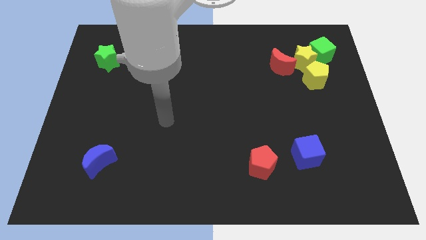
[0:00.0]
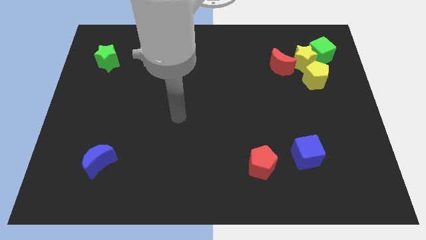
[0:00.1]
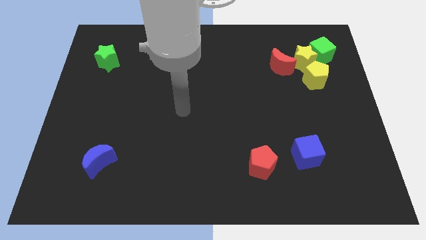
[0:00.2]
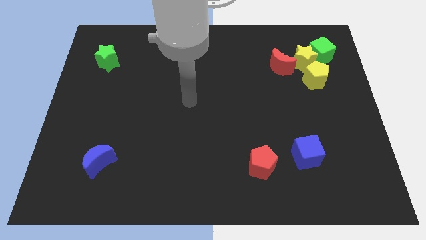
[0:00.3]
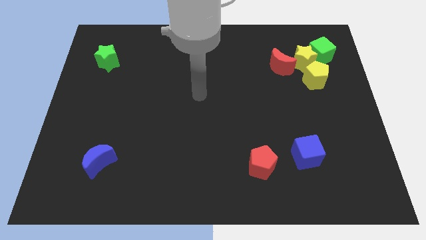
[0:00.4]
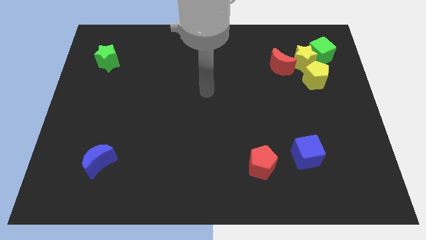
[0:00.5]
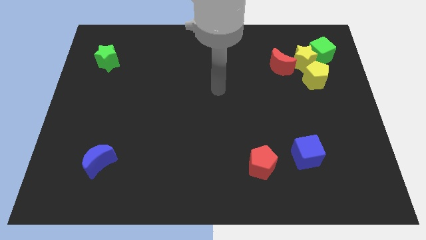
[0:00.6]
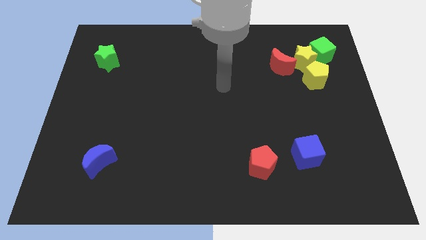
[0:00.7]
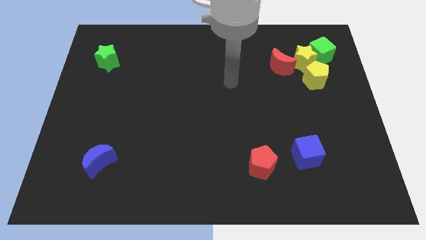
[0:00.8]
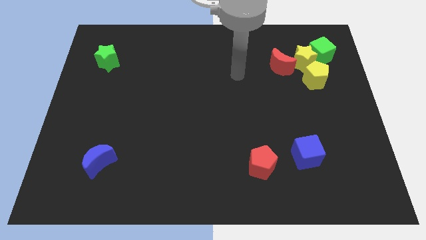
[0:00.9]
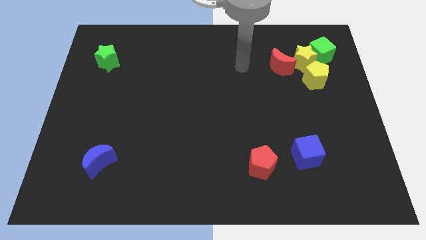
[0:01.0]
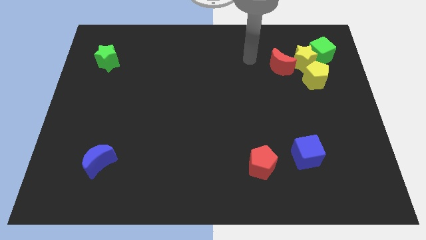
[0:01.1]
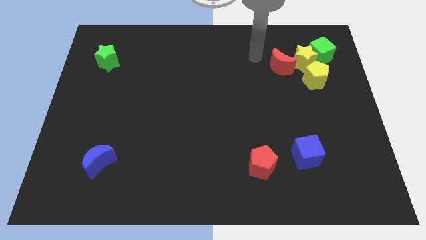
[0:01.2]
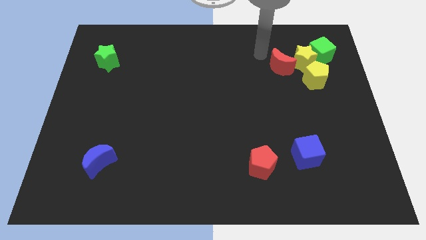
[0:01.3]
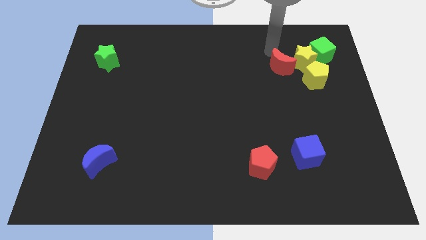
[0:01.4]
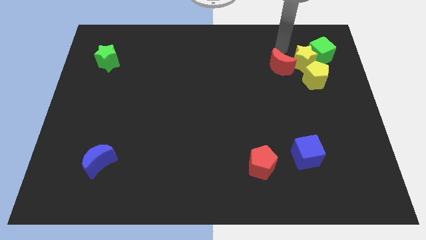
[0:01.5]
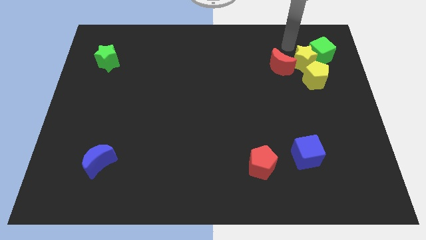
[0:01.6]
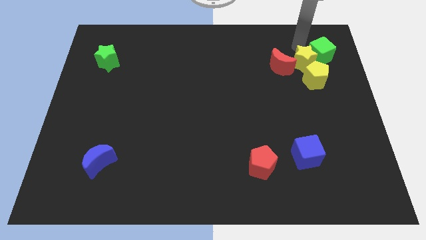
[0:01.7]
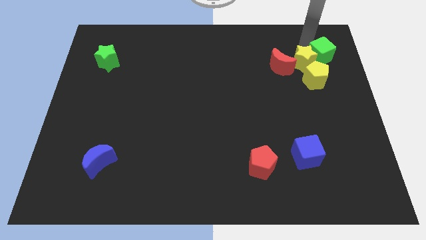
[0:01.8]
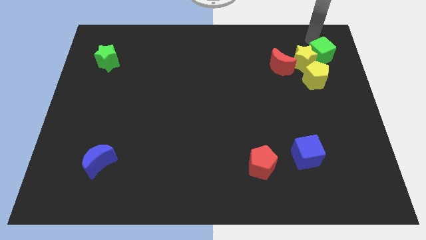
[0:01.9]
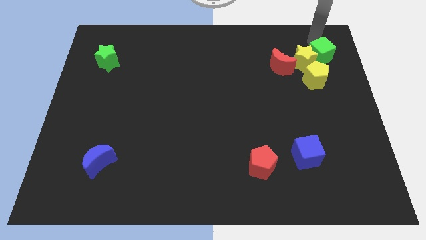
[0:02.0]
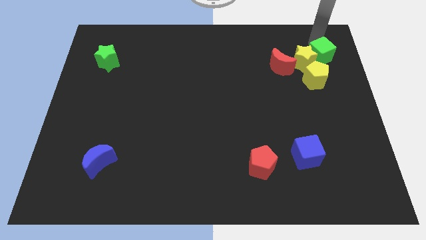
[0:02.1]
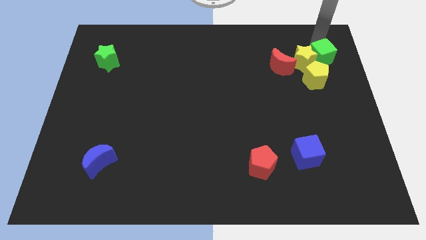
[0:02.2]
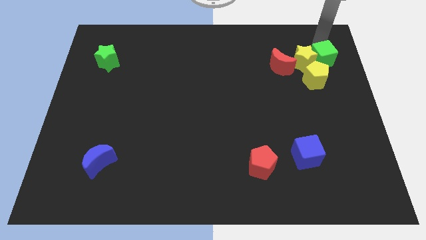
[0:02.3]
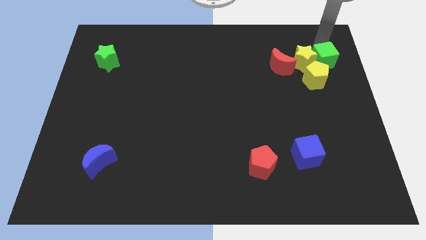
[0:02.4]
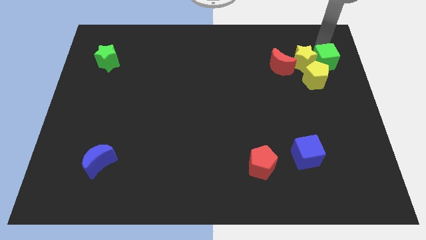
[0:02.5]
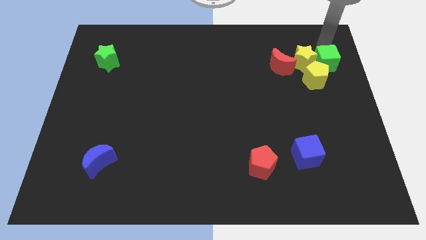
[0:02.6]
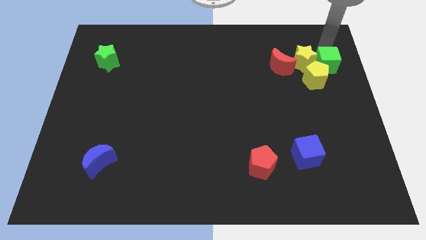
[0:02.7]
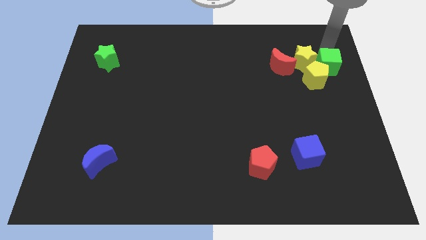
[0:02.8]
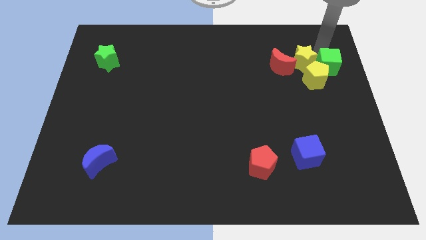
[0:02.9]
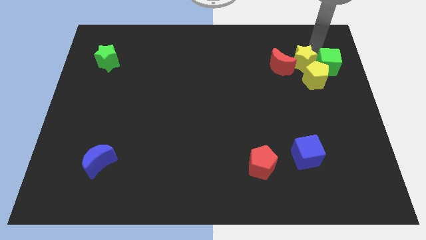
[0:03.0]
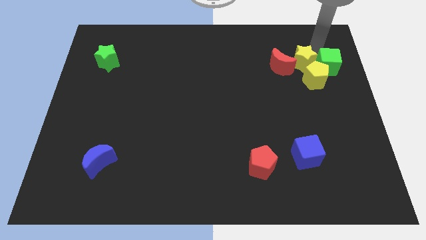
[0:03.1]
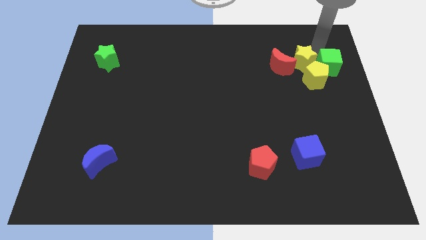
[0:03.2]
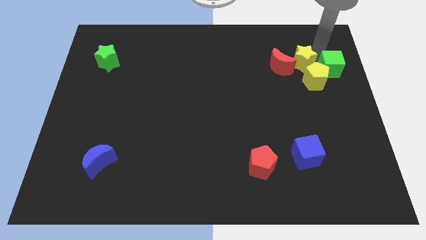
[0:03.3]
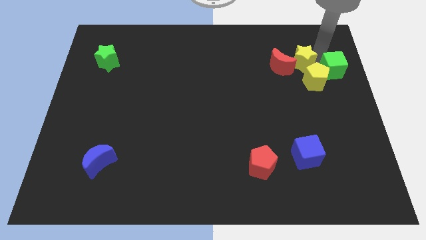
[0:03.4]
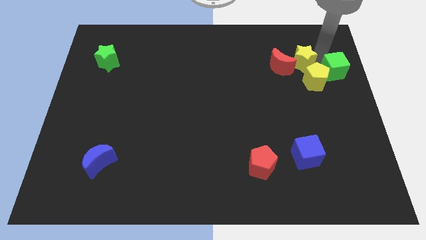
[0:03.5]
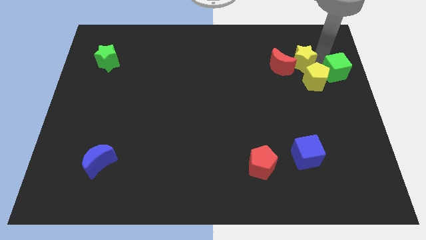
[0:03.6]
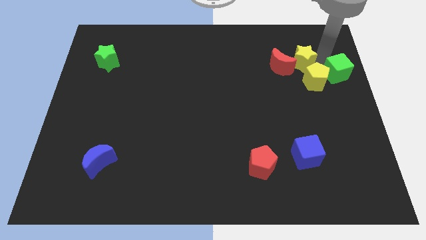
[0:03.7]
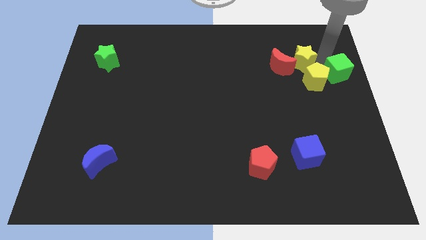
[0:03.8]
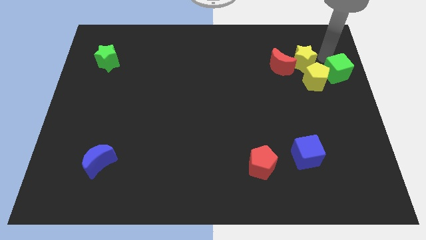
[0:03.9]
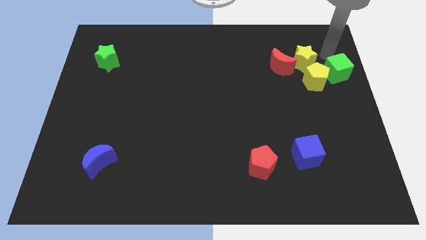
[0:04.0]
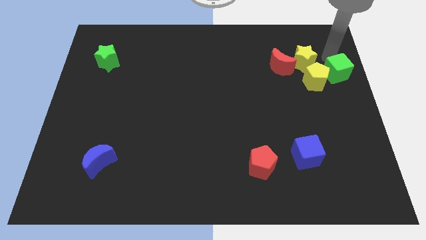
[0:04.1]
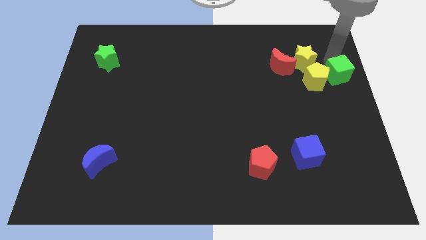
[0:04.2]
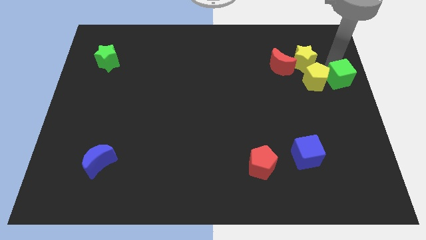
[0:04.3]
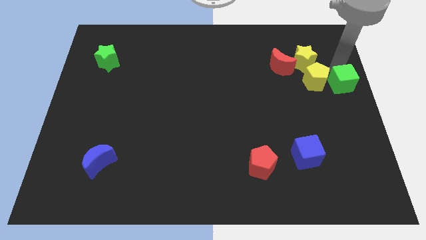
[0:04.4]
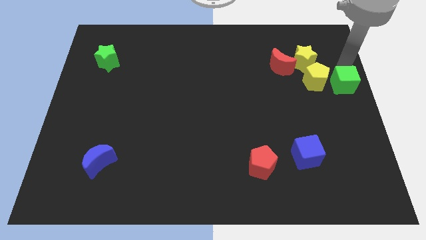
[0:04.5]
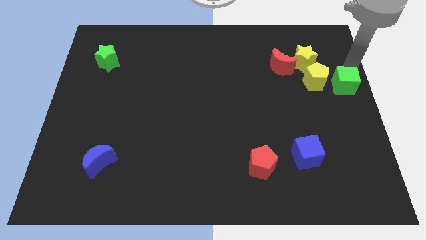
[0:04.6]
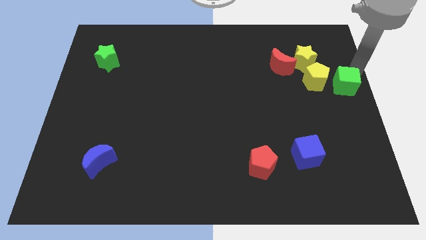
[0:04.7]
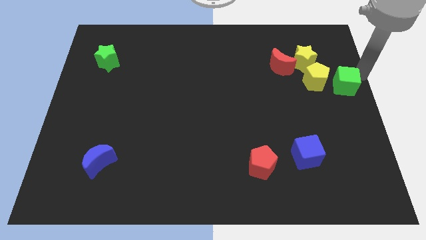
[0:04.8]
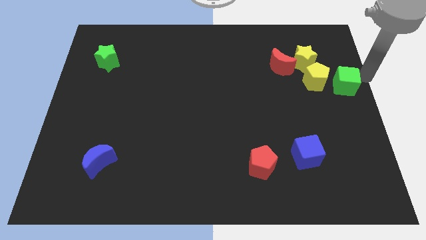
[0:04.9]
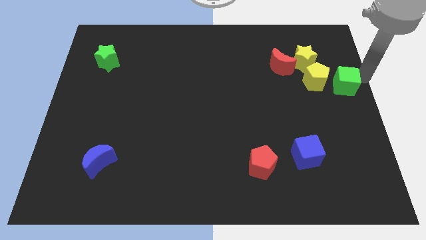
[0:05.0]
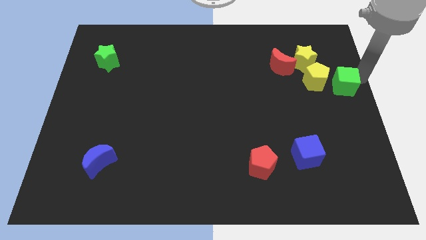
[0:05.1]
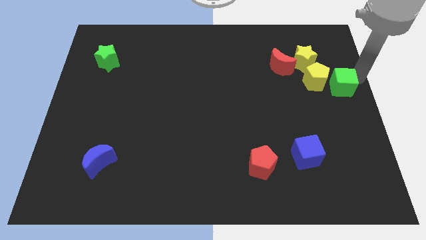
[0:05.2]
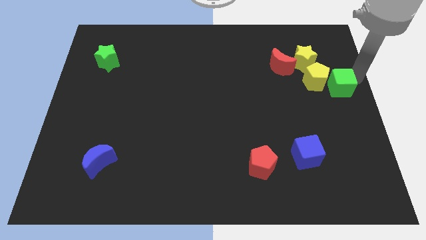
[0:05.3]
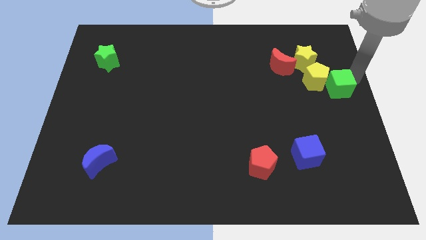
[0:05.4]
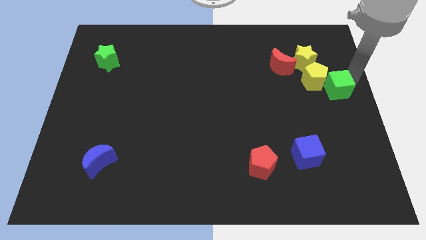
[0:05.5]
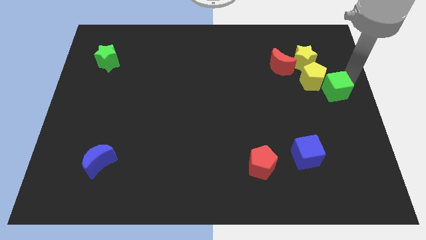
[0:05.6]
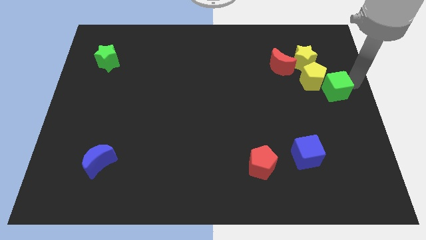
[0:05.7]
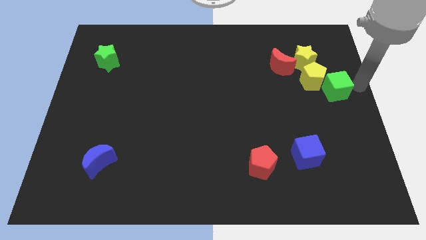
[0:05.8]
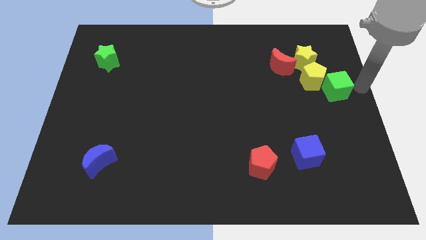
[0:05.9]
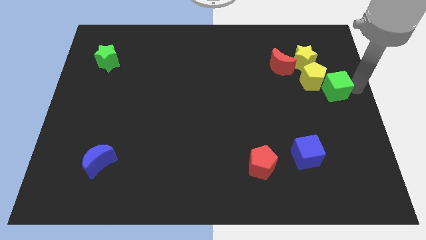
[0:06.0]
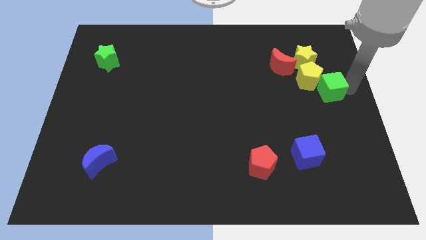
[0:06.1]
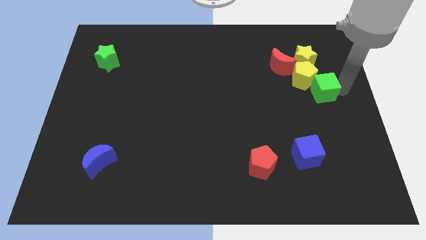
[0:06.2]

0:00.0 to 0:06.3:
slightly push the green cube diagonally downwards and to the left

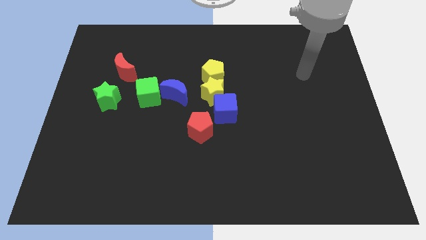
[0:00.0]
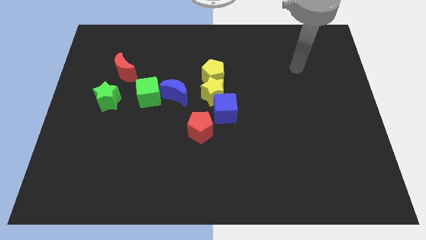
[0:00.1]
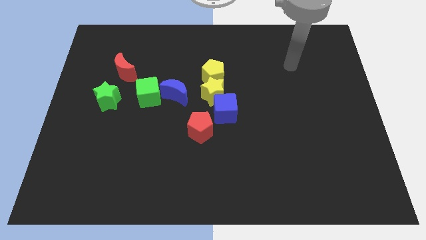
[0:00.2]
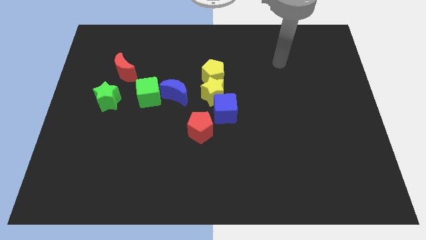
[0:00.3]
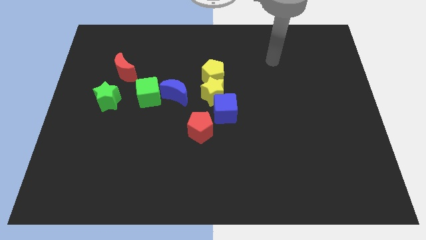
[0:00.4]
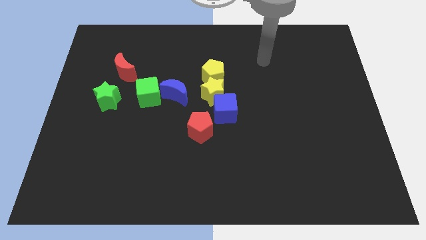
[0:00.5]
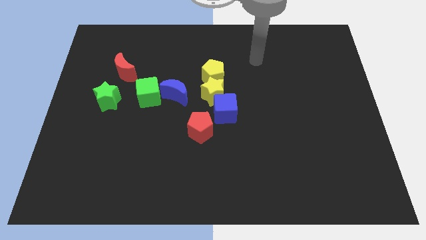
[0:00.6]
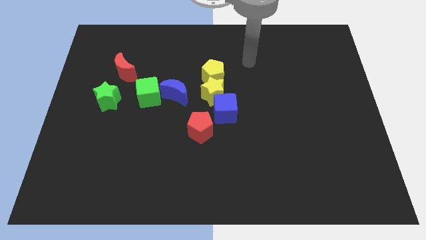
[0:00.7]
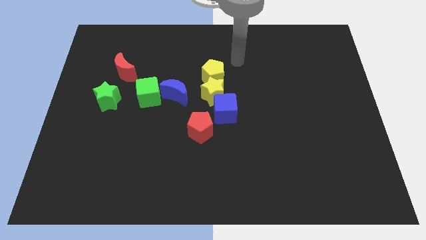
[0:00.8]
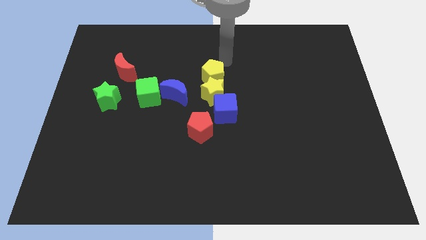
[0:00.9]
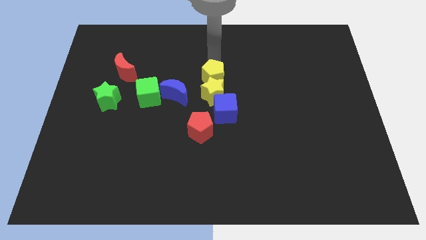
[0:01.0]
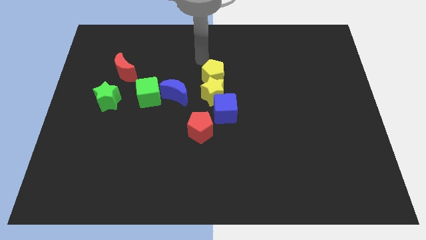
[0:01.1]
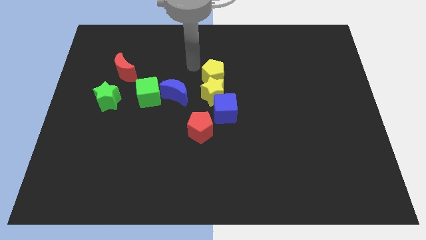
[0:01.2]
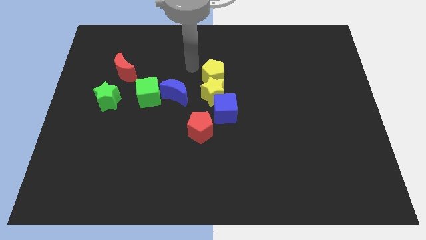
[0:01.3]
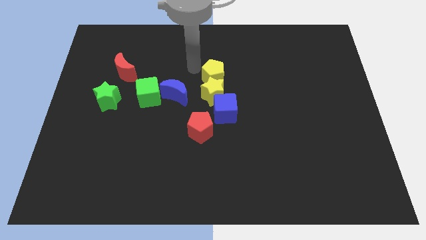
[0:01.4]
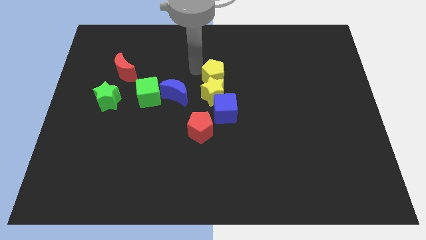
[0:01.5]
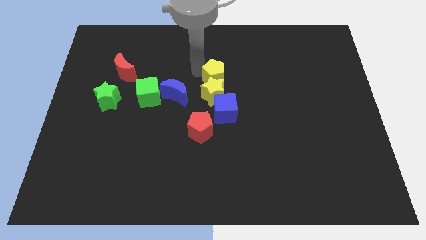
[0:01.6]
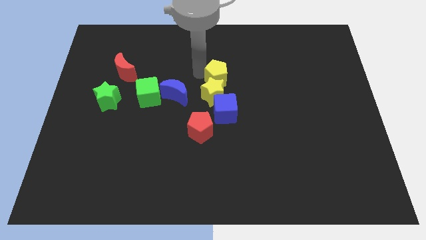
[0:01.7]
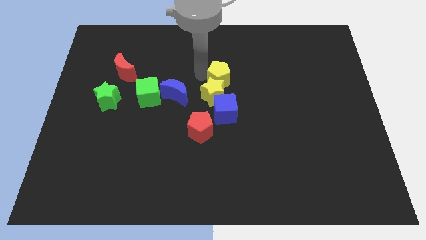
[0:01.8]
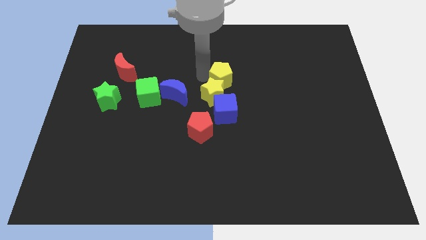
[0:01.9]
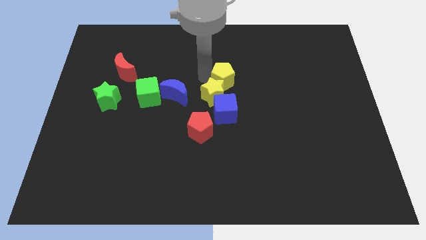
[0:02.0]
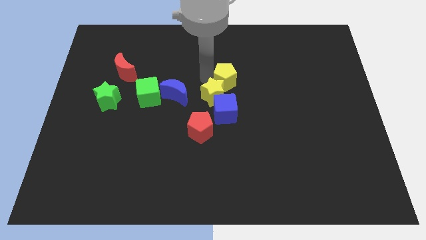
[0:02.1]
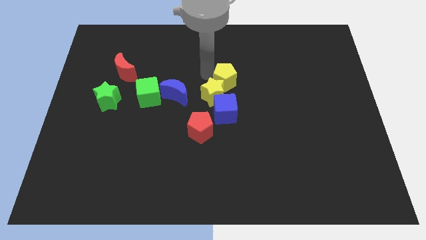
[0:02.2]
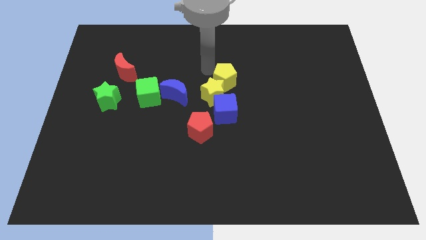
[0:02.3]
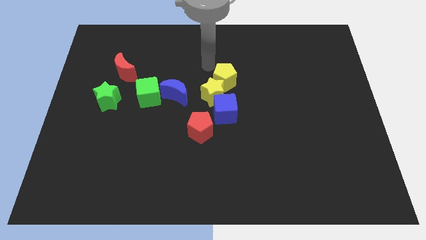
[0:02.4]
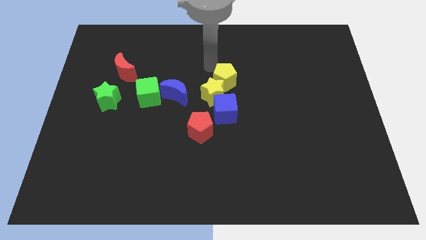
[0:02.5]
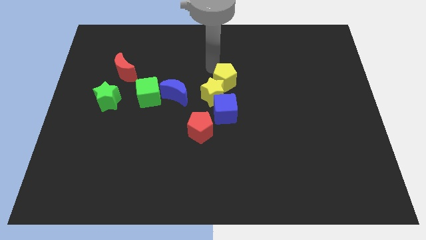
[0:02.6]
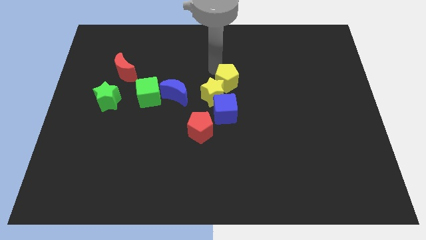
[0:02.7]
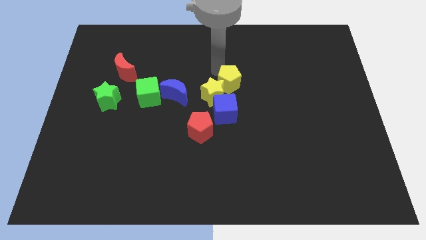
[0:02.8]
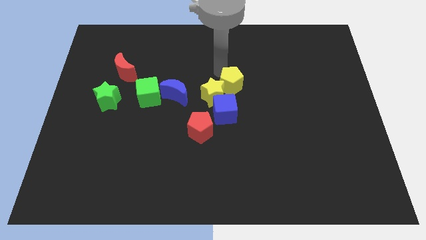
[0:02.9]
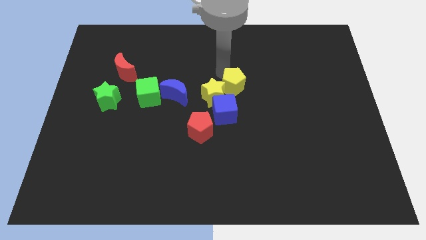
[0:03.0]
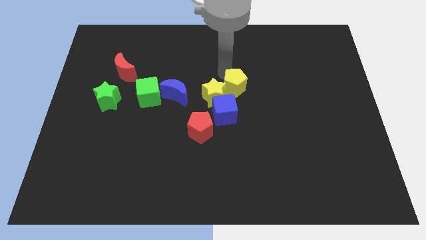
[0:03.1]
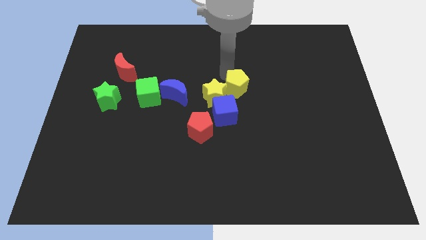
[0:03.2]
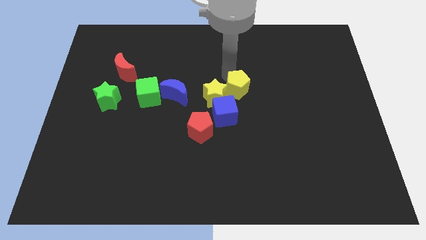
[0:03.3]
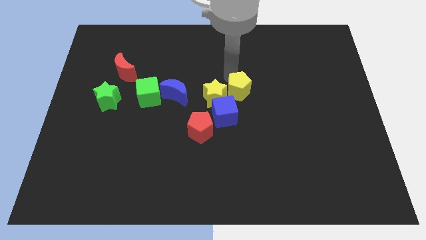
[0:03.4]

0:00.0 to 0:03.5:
slightly slide the yellow pentagon down and to the right
